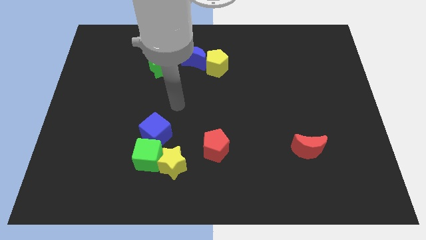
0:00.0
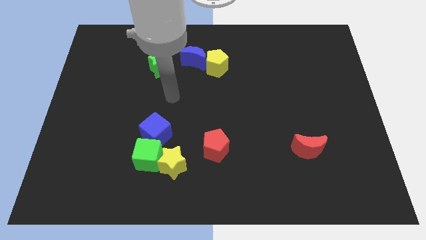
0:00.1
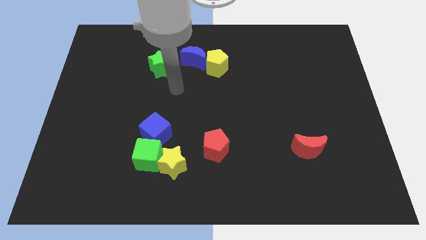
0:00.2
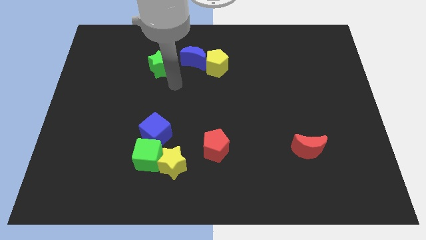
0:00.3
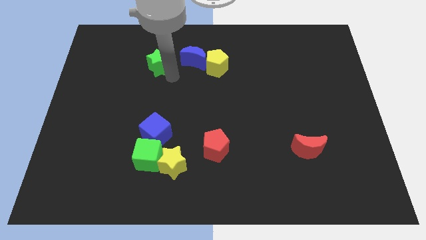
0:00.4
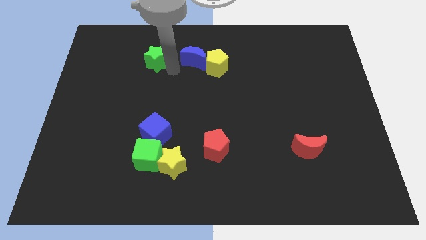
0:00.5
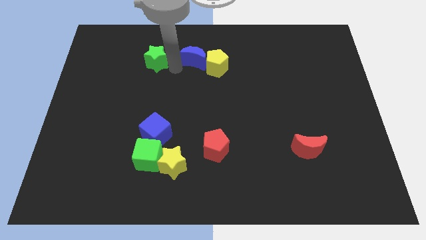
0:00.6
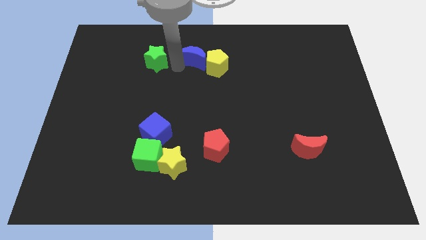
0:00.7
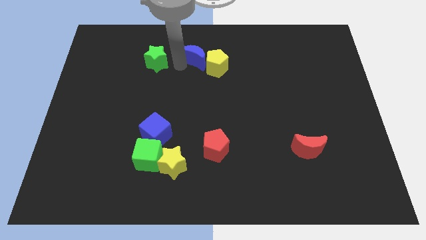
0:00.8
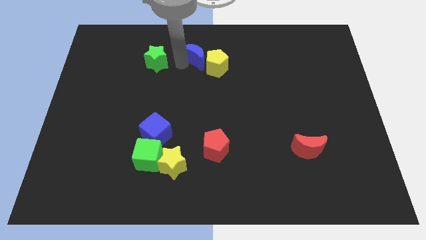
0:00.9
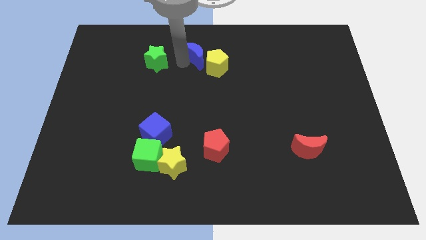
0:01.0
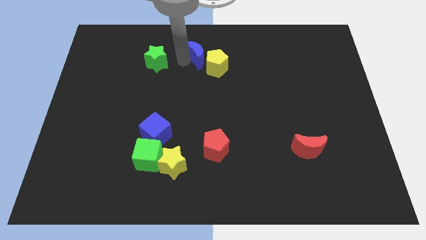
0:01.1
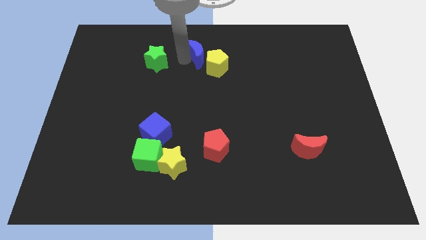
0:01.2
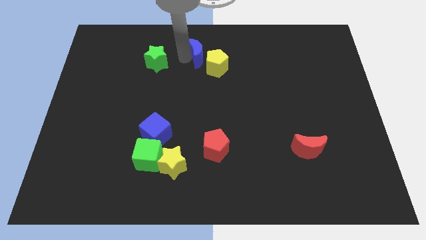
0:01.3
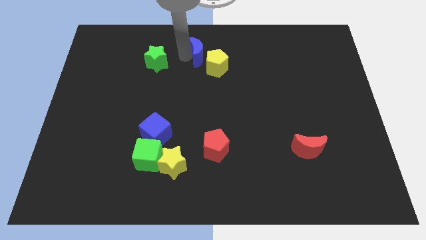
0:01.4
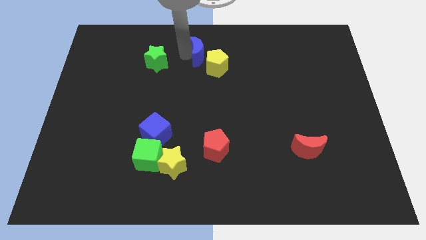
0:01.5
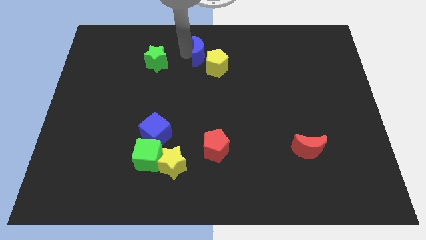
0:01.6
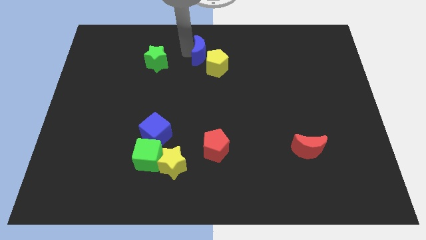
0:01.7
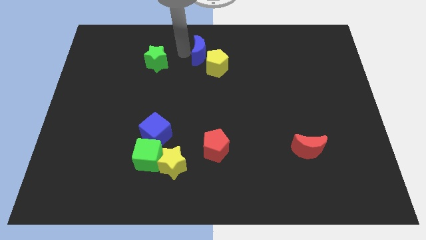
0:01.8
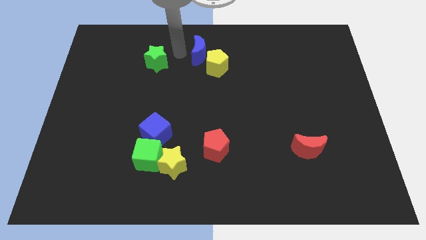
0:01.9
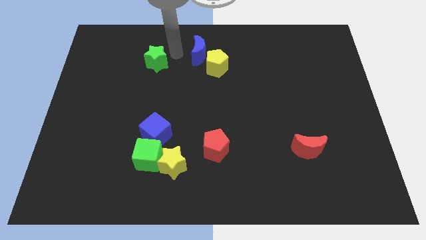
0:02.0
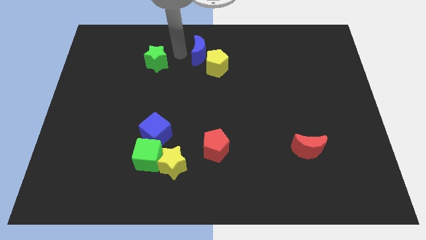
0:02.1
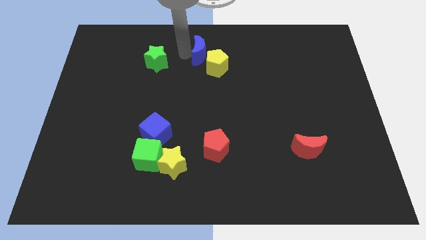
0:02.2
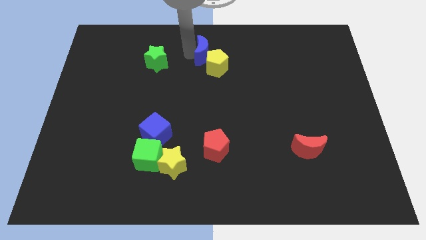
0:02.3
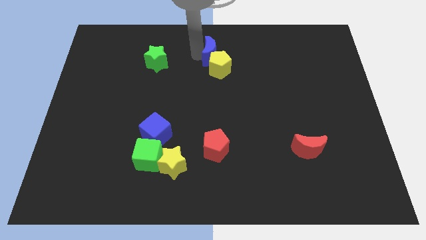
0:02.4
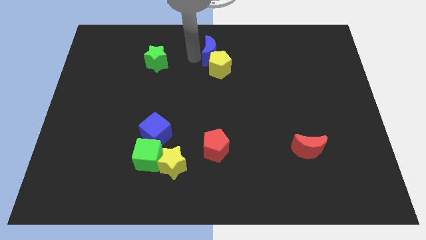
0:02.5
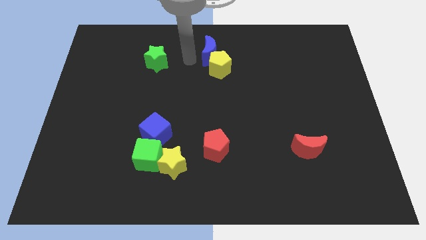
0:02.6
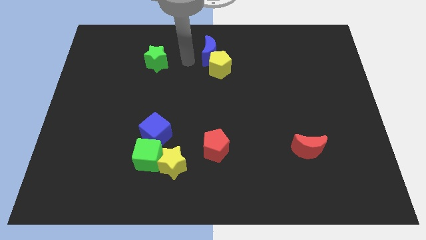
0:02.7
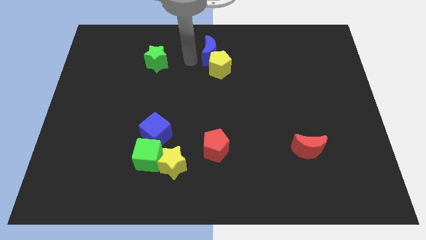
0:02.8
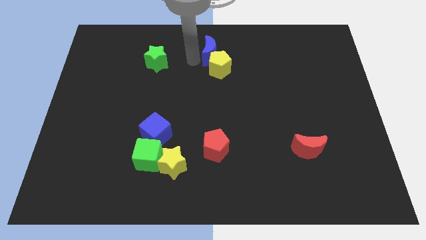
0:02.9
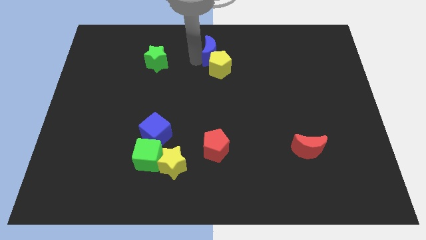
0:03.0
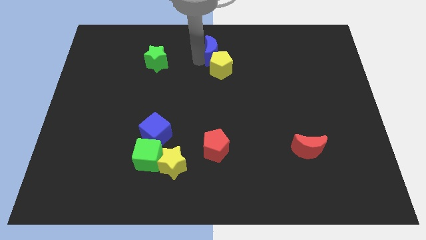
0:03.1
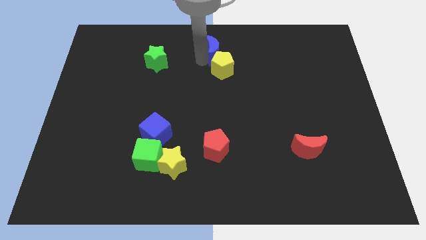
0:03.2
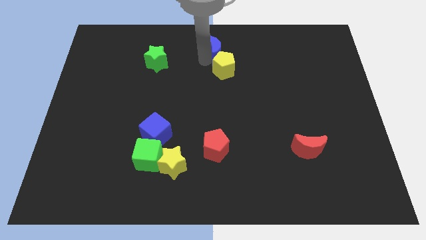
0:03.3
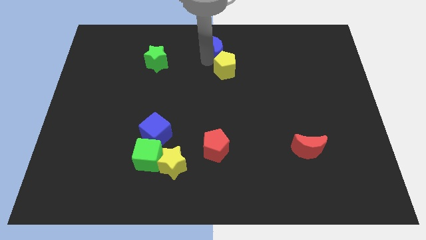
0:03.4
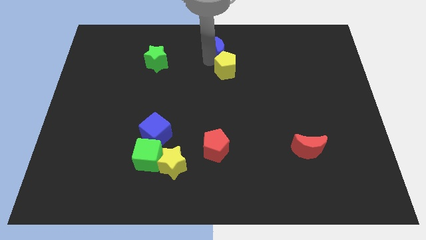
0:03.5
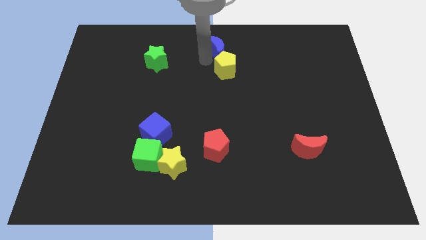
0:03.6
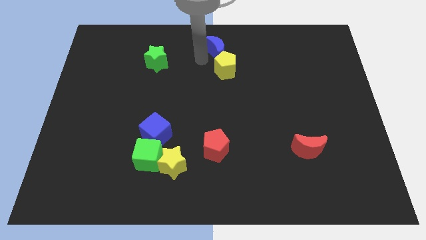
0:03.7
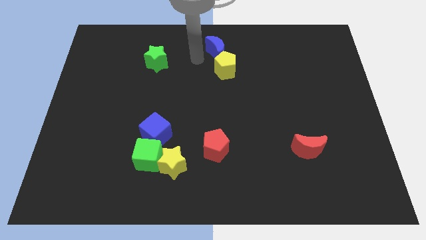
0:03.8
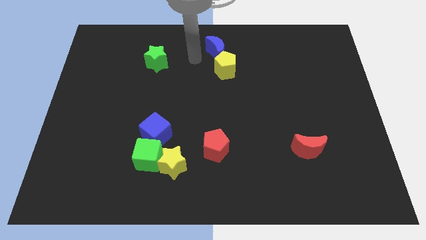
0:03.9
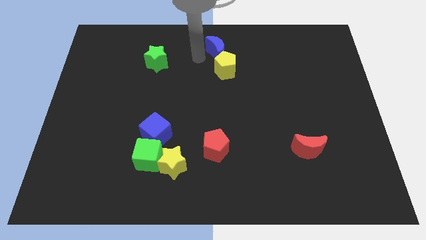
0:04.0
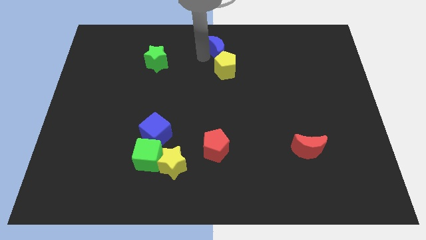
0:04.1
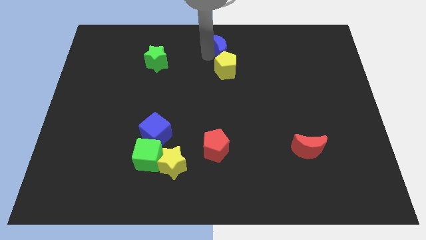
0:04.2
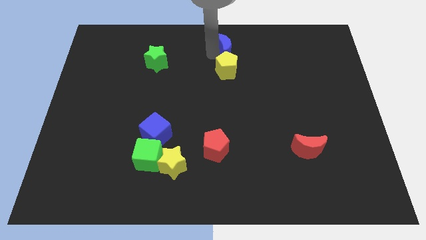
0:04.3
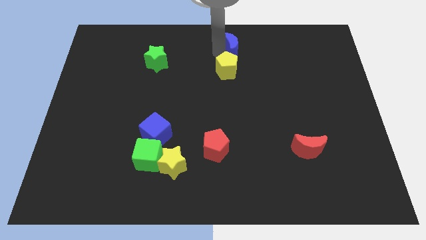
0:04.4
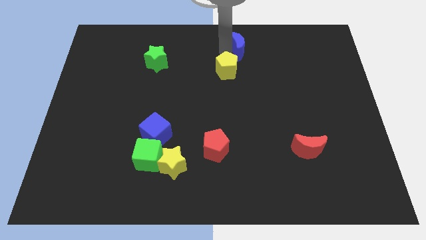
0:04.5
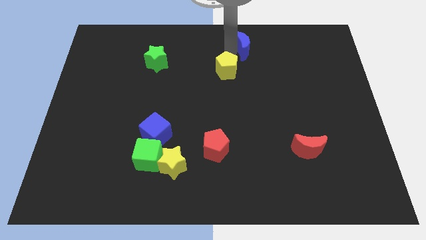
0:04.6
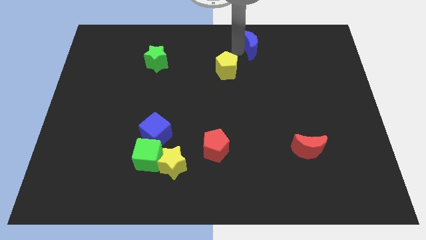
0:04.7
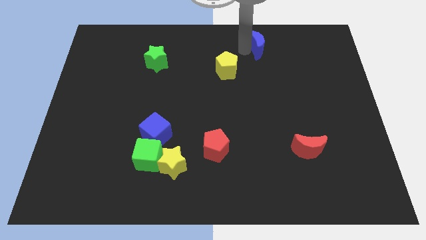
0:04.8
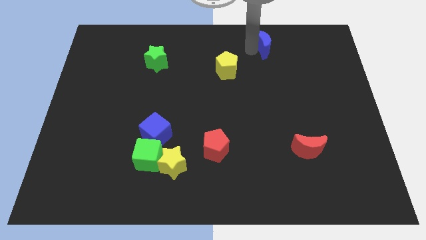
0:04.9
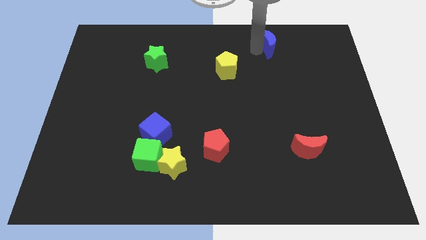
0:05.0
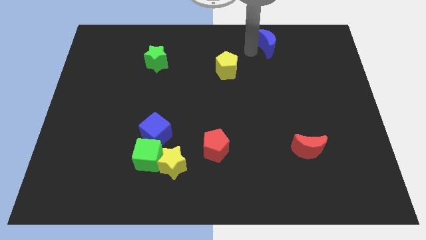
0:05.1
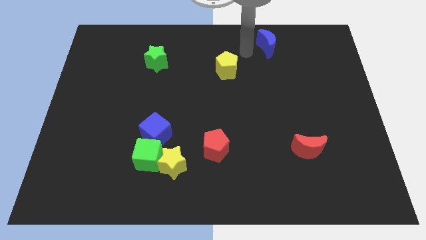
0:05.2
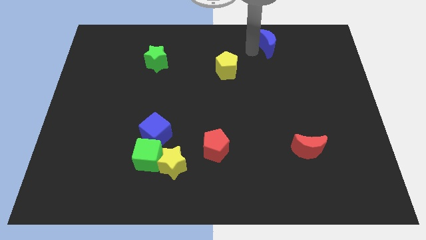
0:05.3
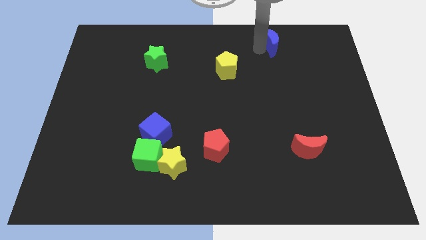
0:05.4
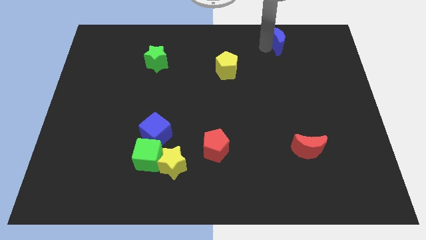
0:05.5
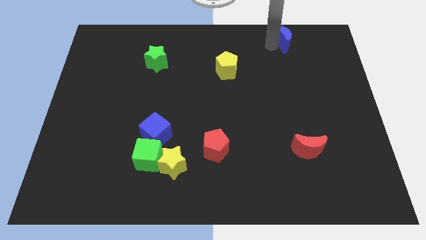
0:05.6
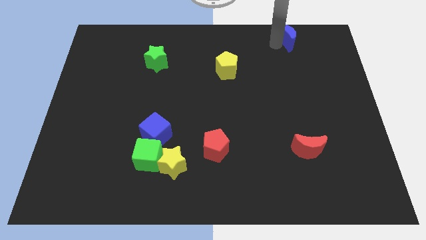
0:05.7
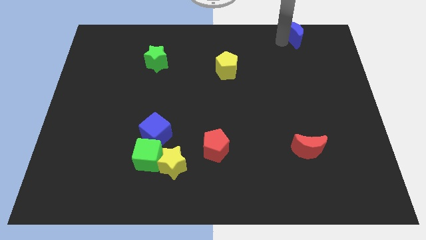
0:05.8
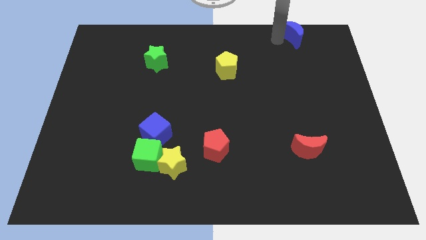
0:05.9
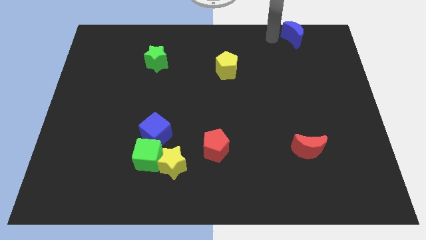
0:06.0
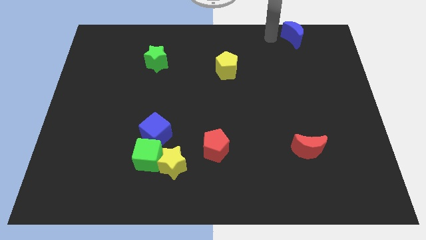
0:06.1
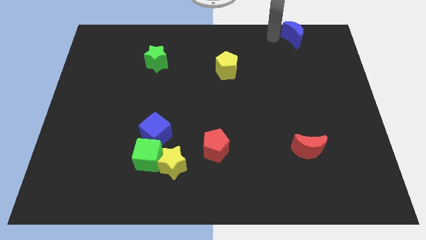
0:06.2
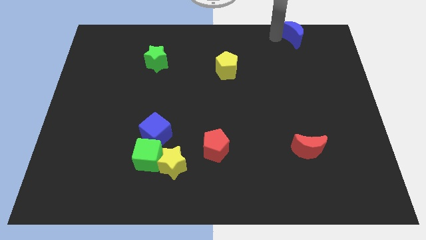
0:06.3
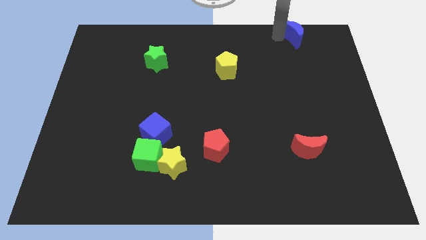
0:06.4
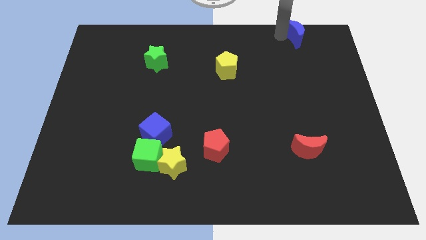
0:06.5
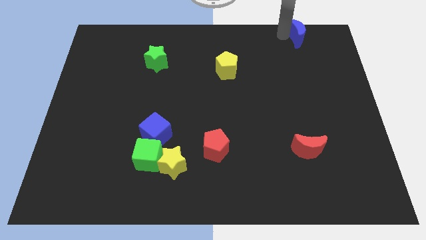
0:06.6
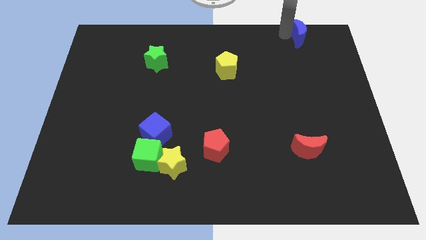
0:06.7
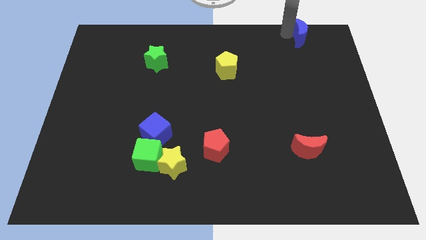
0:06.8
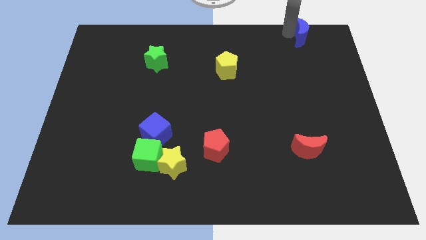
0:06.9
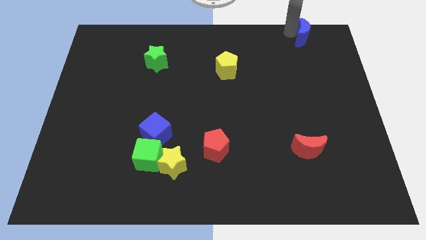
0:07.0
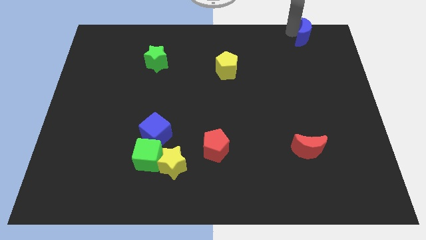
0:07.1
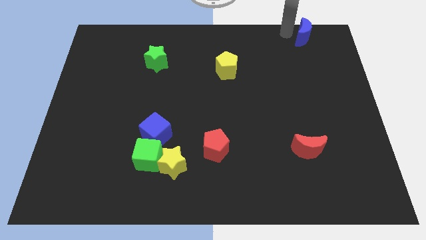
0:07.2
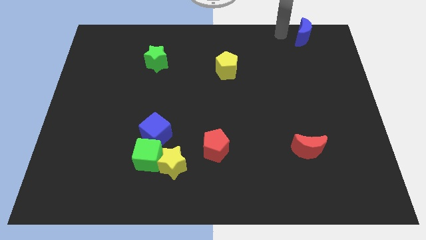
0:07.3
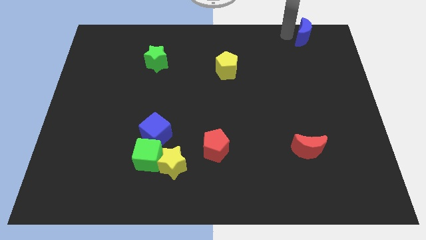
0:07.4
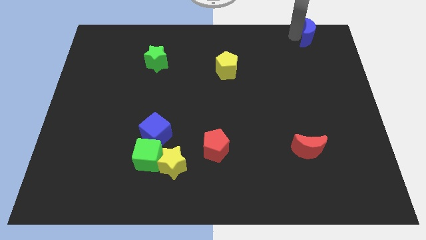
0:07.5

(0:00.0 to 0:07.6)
move the blue moon to the top right of the board

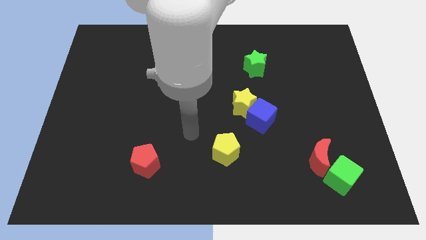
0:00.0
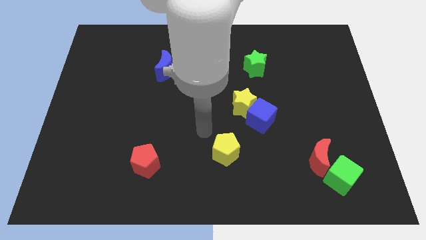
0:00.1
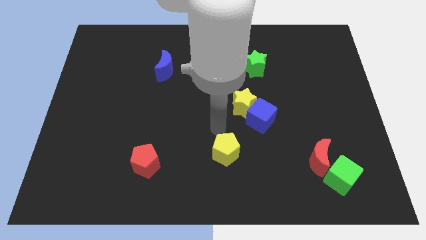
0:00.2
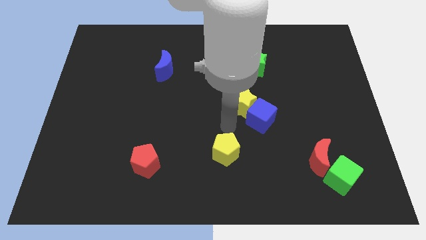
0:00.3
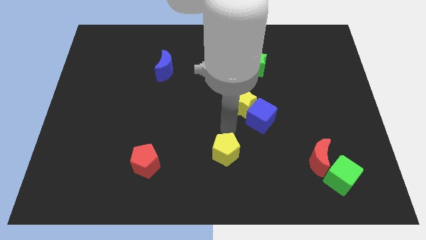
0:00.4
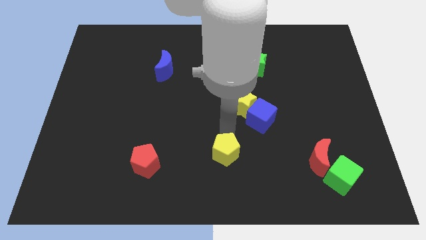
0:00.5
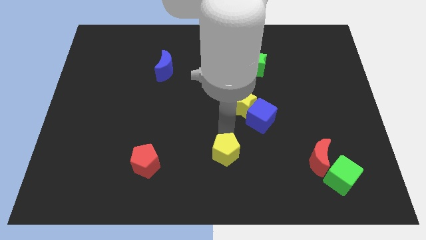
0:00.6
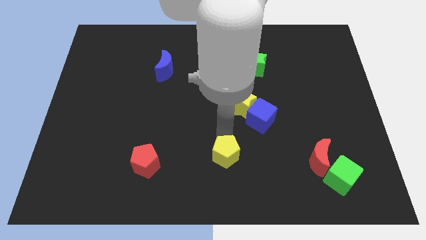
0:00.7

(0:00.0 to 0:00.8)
move the yellow pentagon to the bottom side
